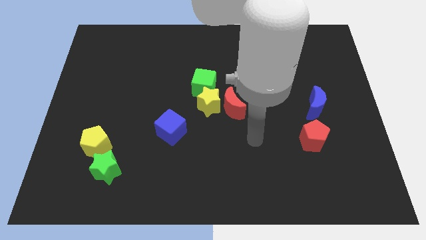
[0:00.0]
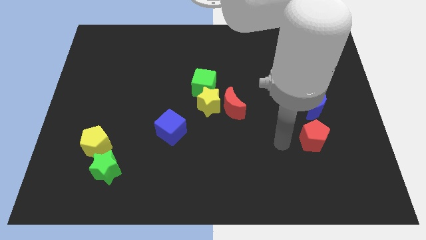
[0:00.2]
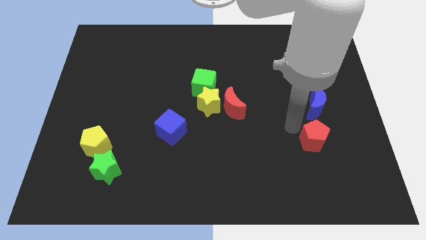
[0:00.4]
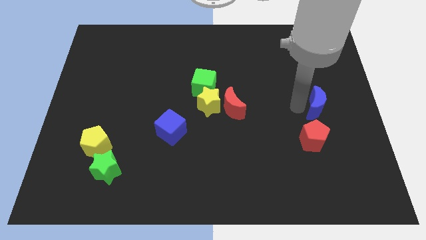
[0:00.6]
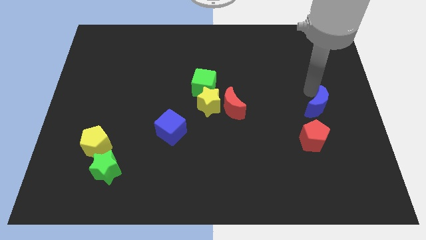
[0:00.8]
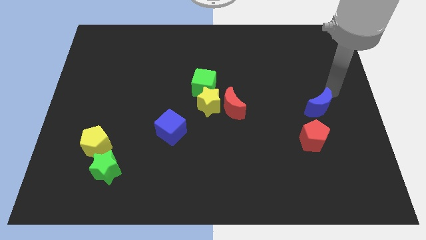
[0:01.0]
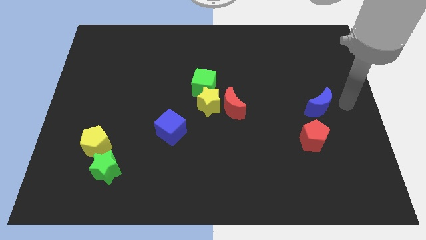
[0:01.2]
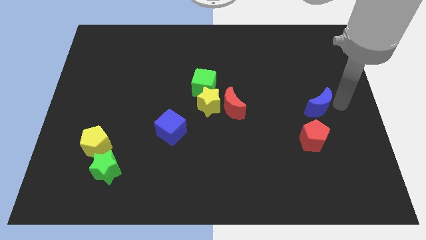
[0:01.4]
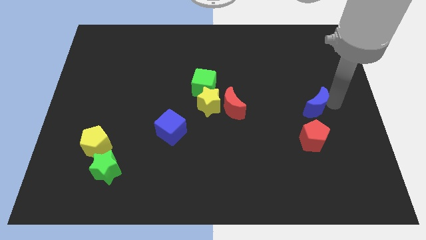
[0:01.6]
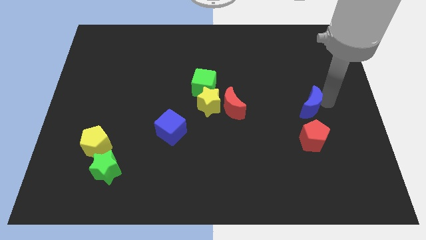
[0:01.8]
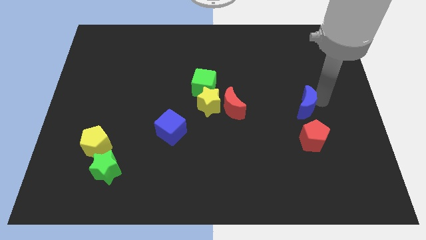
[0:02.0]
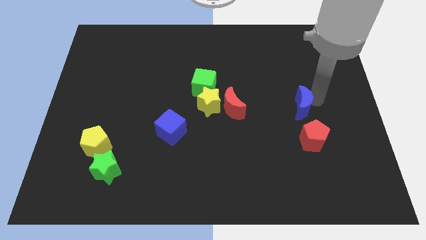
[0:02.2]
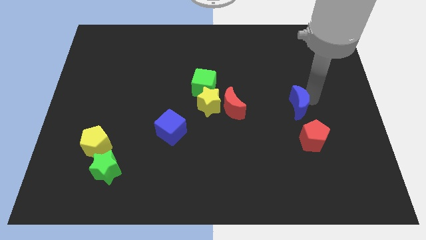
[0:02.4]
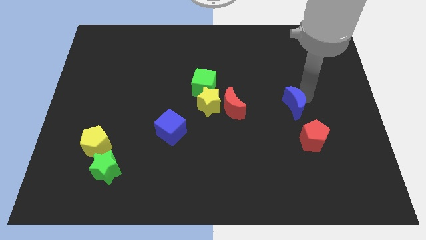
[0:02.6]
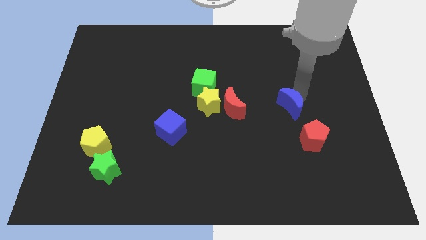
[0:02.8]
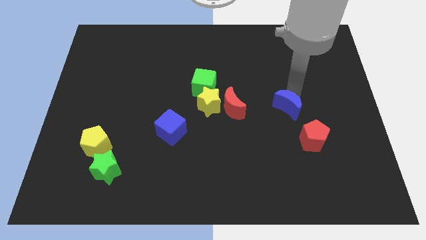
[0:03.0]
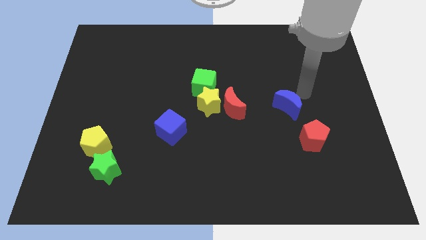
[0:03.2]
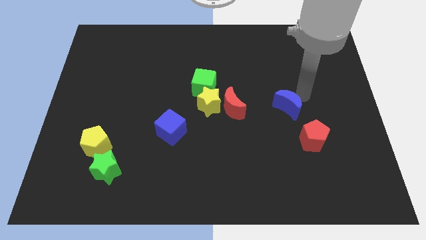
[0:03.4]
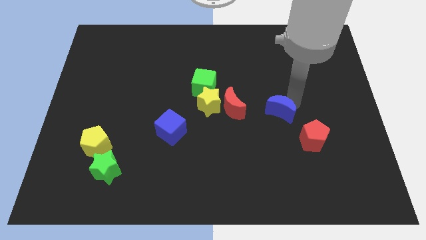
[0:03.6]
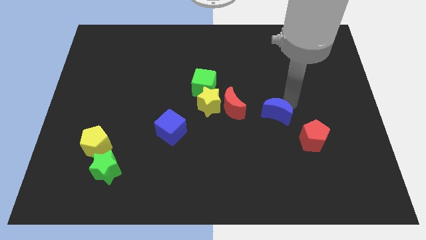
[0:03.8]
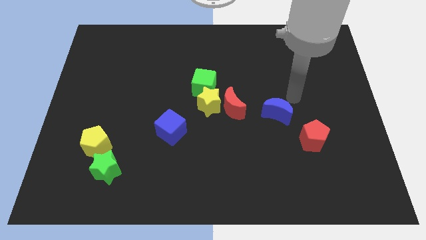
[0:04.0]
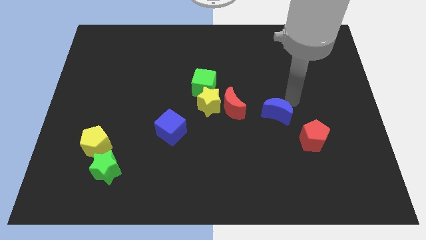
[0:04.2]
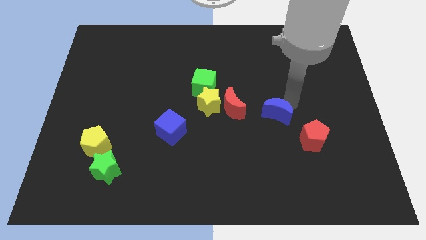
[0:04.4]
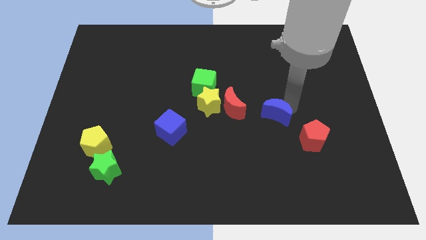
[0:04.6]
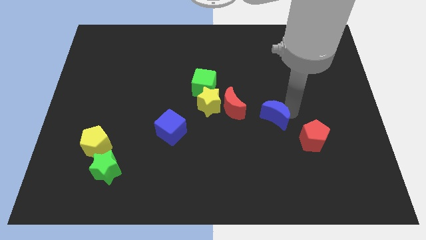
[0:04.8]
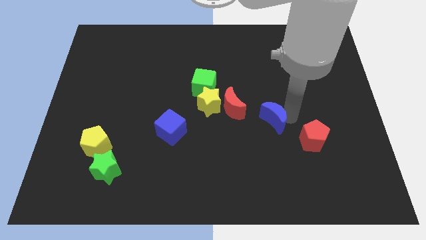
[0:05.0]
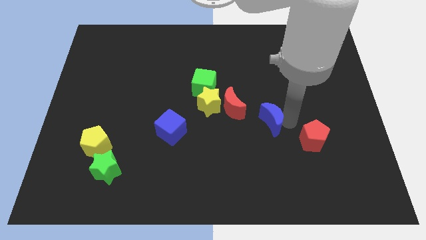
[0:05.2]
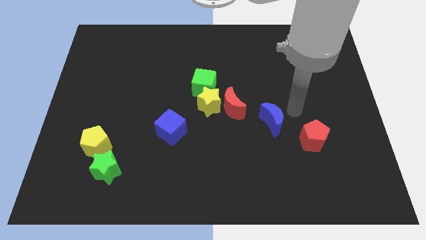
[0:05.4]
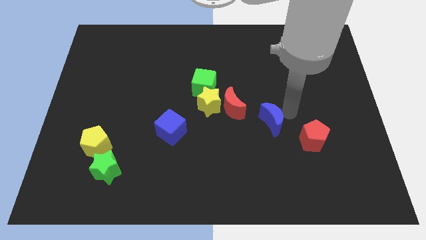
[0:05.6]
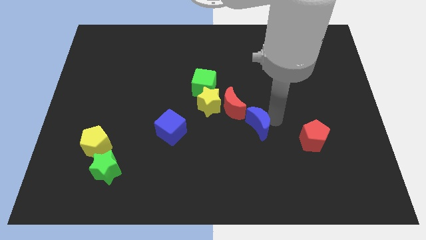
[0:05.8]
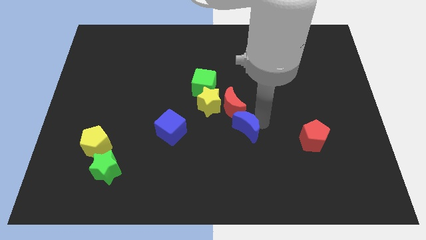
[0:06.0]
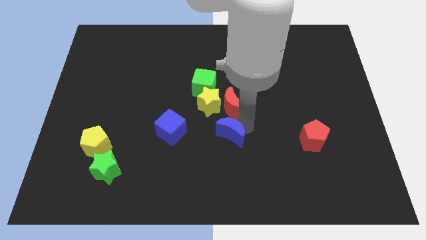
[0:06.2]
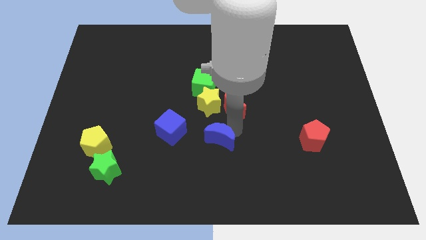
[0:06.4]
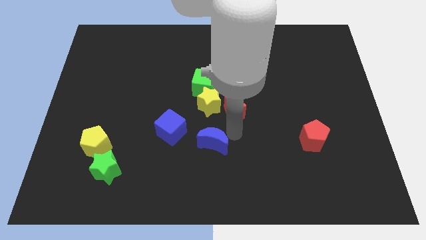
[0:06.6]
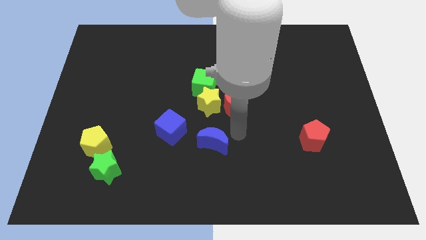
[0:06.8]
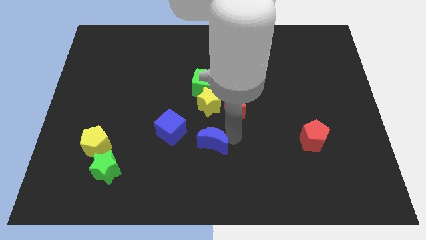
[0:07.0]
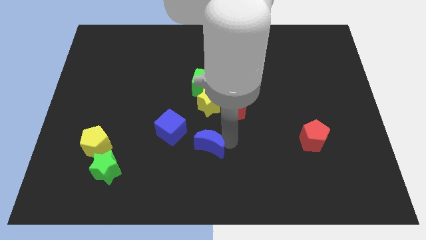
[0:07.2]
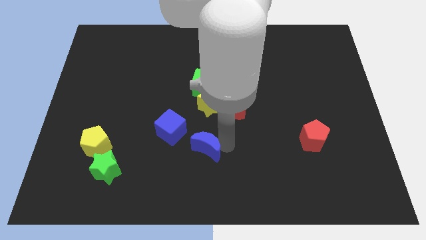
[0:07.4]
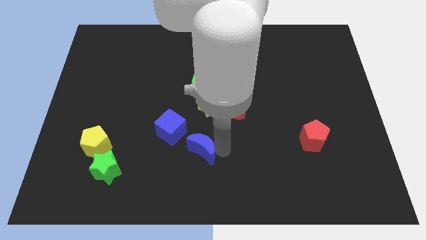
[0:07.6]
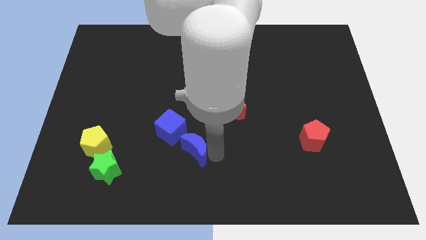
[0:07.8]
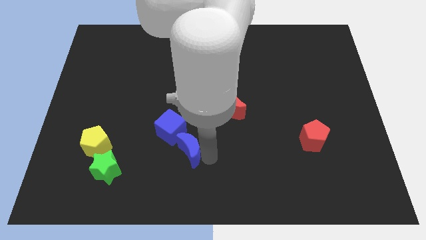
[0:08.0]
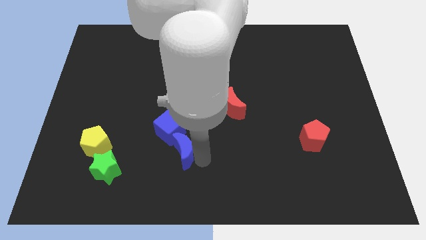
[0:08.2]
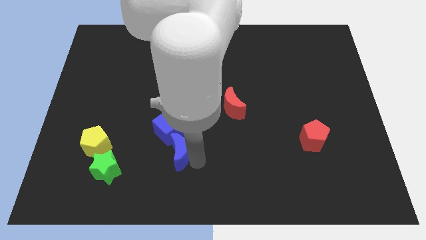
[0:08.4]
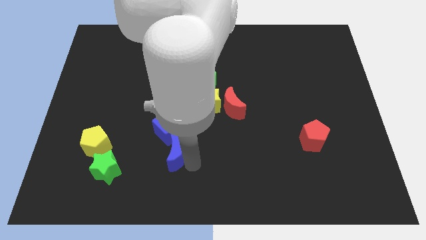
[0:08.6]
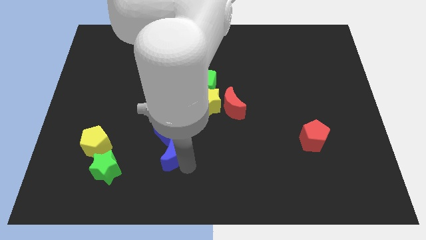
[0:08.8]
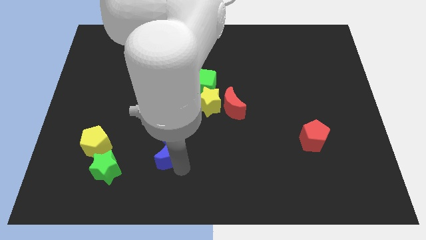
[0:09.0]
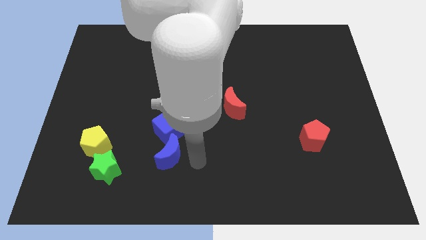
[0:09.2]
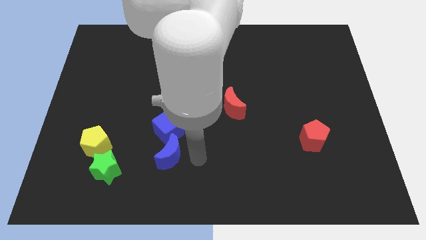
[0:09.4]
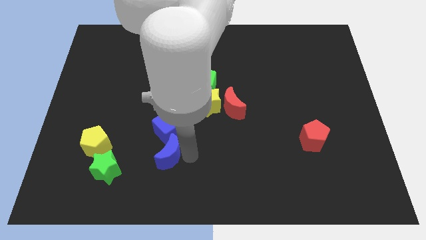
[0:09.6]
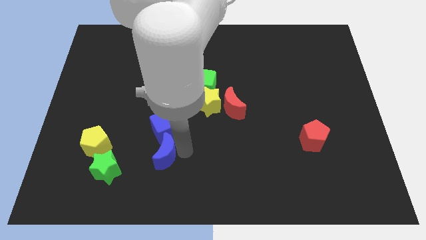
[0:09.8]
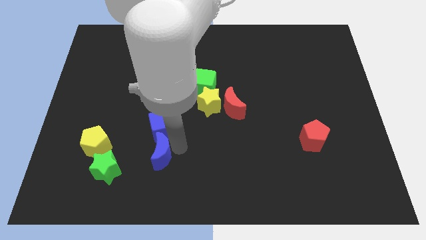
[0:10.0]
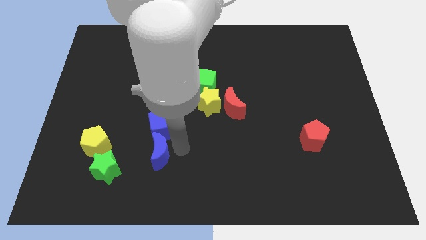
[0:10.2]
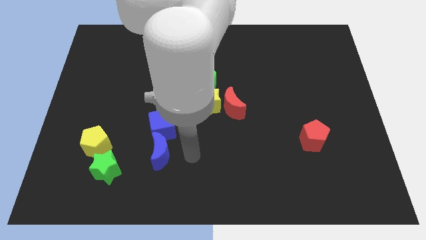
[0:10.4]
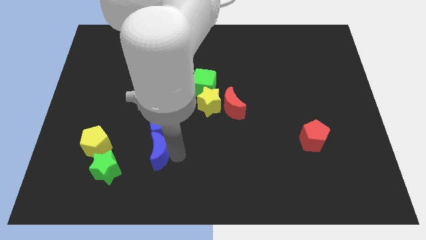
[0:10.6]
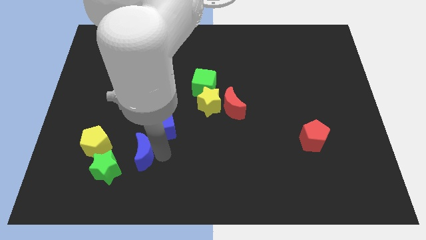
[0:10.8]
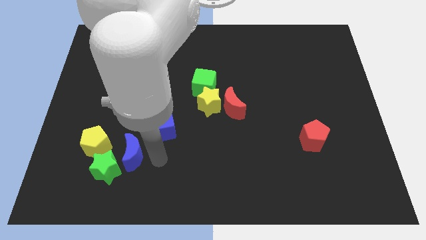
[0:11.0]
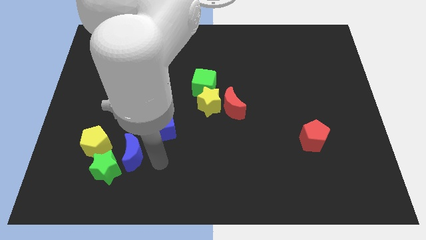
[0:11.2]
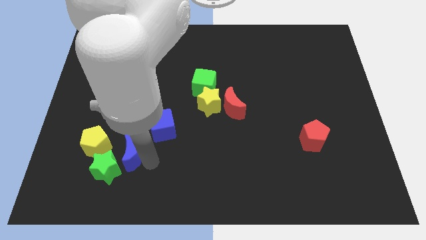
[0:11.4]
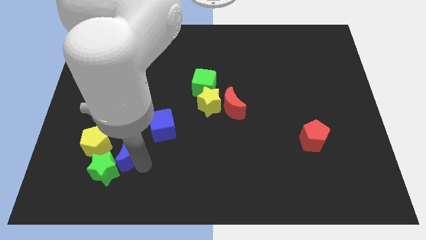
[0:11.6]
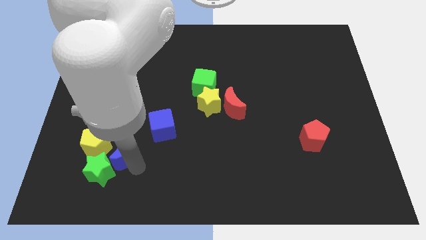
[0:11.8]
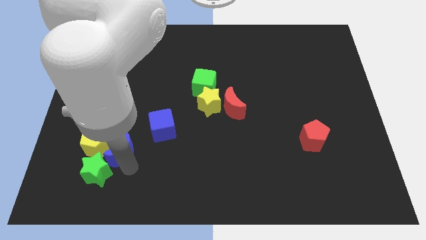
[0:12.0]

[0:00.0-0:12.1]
push the blue moon to the yellow pentagon

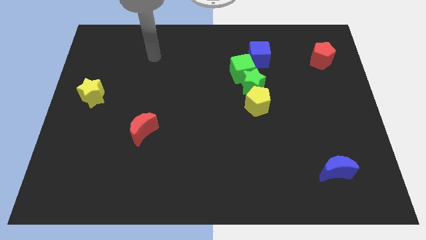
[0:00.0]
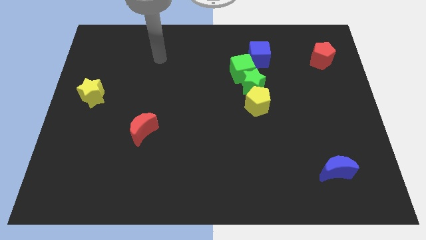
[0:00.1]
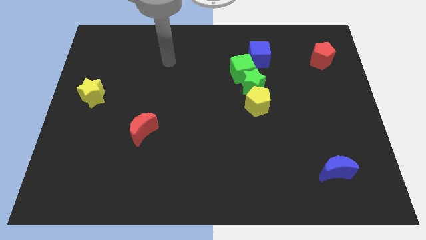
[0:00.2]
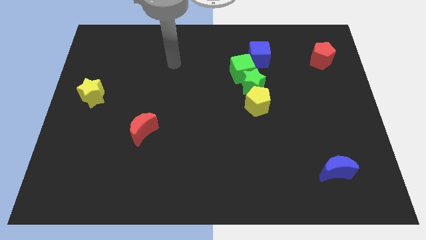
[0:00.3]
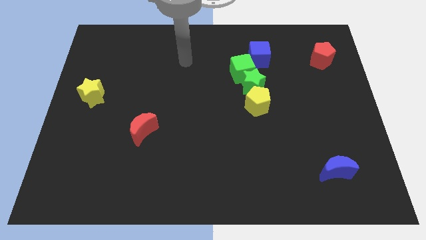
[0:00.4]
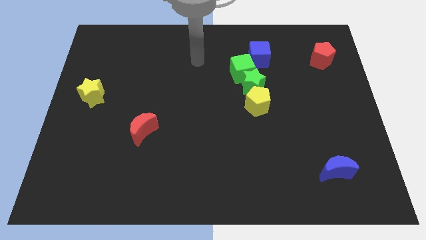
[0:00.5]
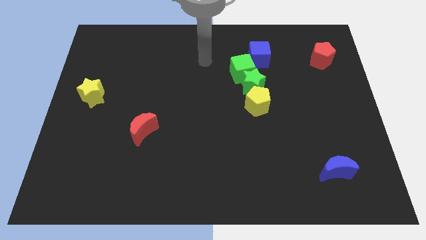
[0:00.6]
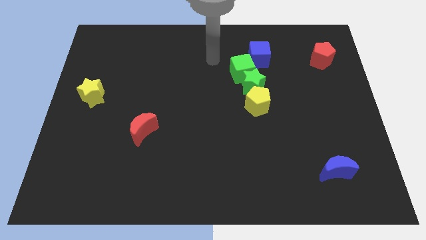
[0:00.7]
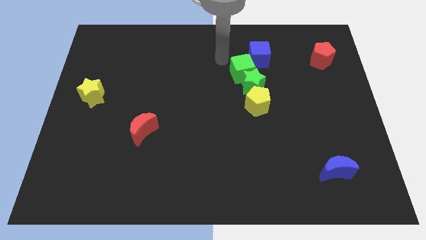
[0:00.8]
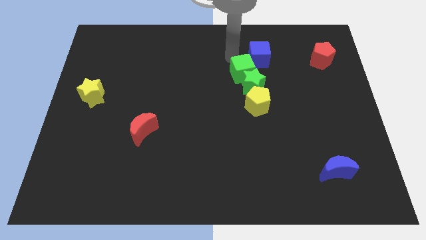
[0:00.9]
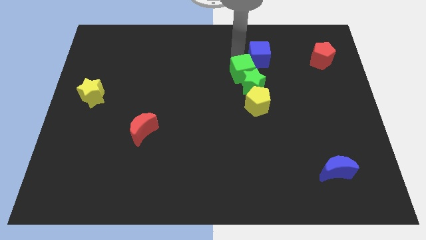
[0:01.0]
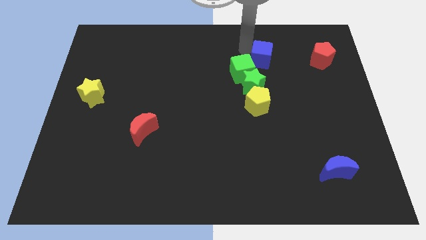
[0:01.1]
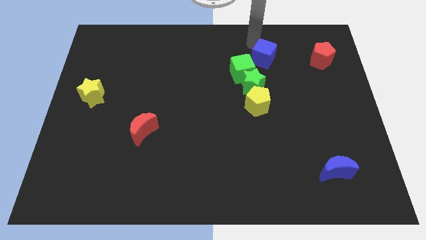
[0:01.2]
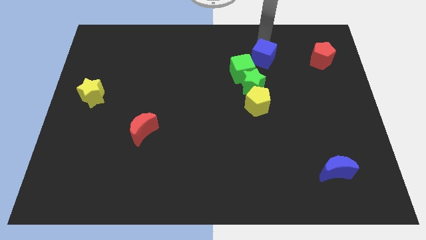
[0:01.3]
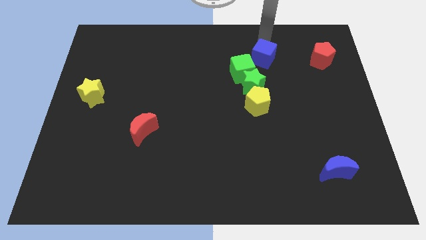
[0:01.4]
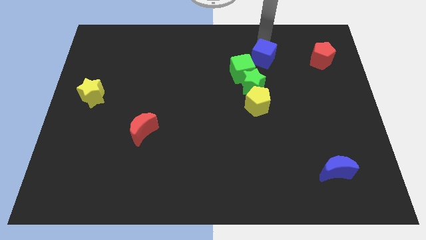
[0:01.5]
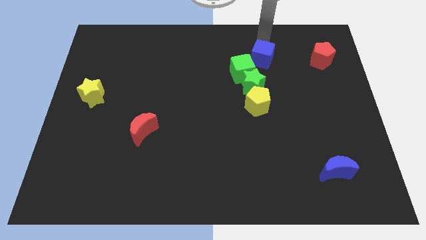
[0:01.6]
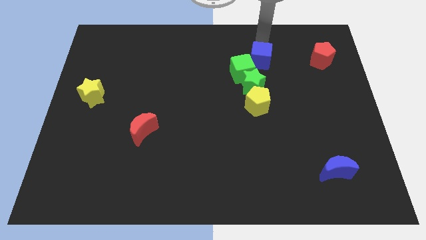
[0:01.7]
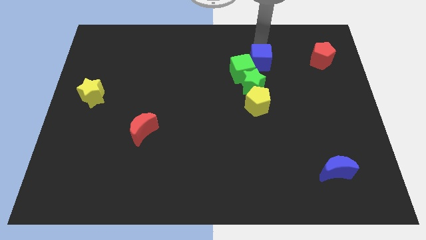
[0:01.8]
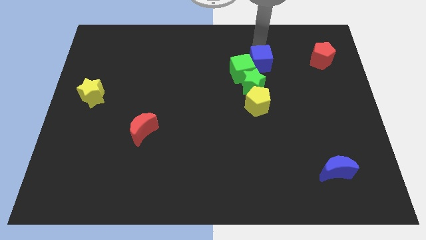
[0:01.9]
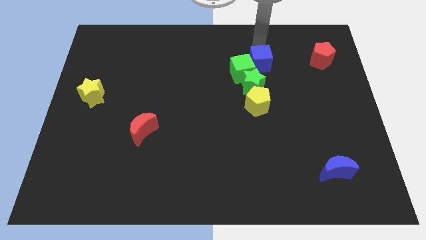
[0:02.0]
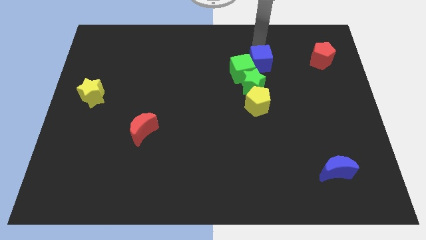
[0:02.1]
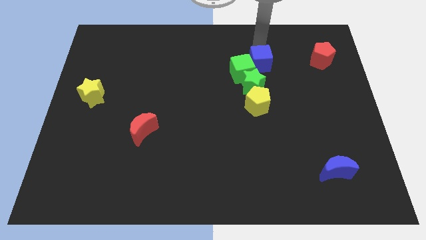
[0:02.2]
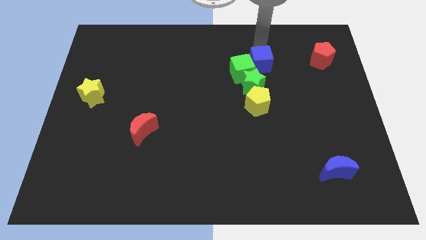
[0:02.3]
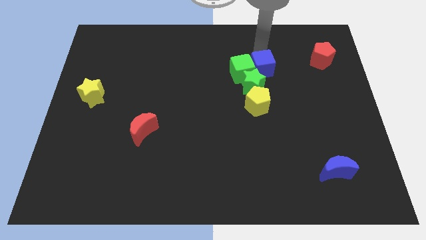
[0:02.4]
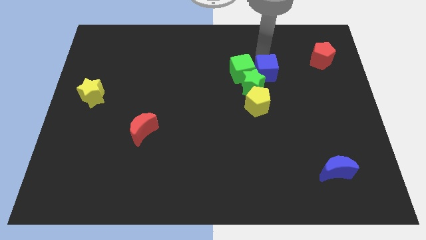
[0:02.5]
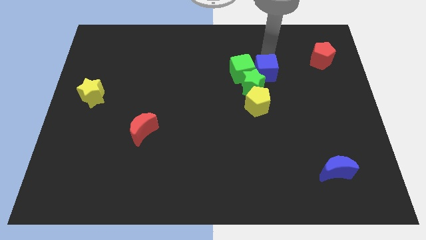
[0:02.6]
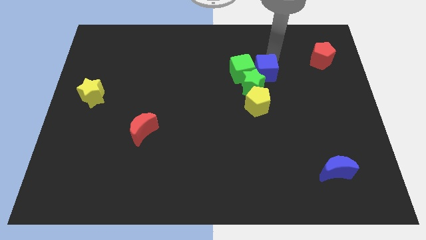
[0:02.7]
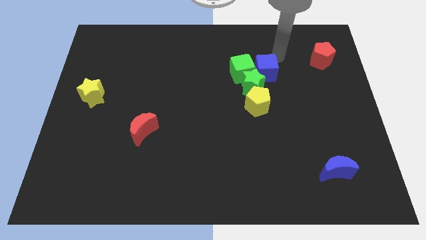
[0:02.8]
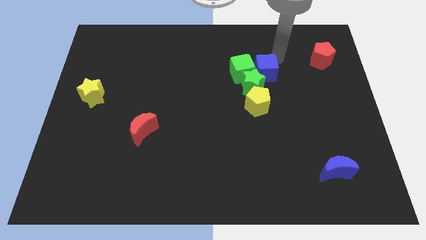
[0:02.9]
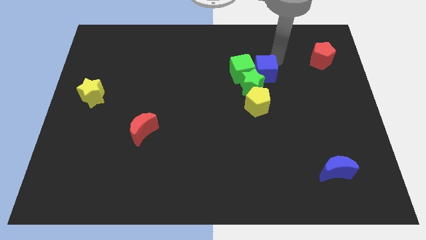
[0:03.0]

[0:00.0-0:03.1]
move the blue cube towards the green star
